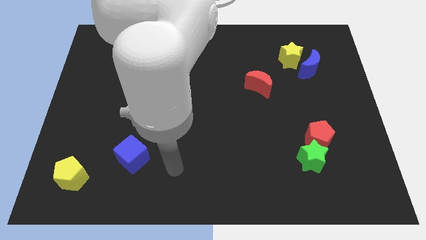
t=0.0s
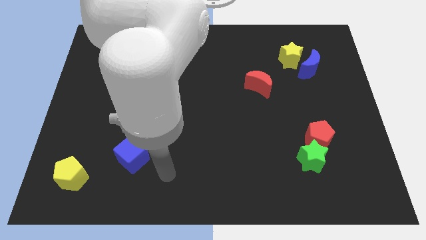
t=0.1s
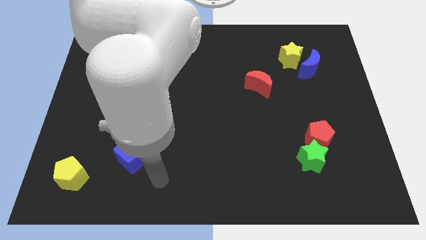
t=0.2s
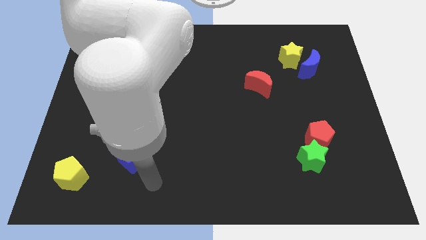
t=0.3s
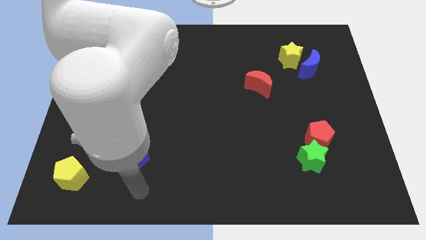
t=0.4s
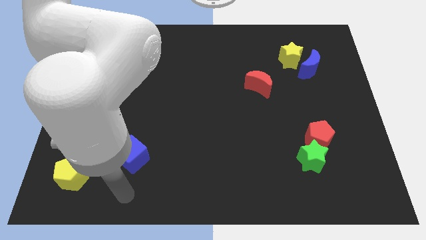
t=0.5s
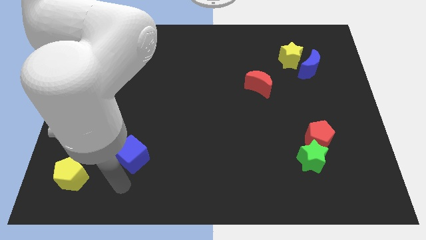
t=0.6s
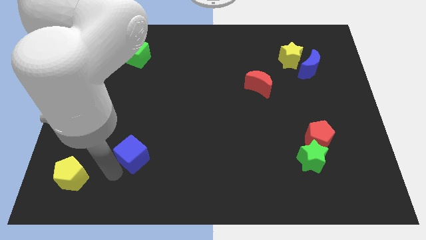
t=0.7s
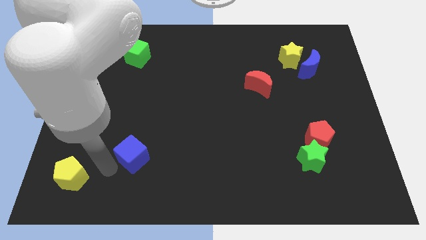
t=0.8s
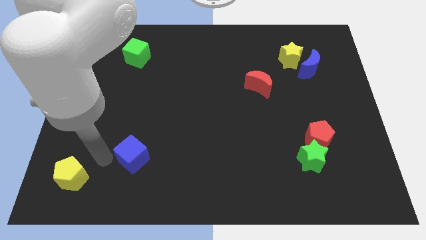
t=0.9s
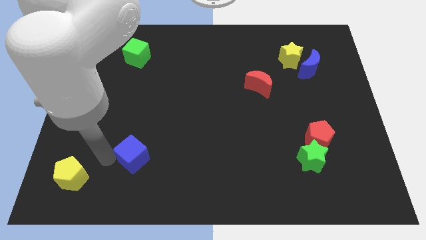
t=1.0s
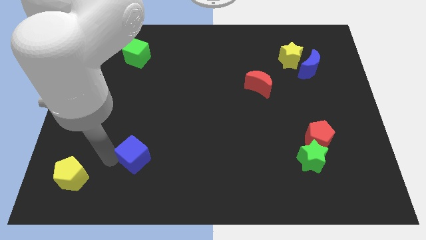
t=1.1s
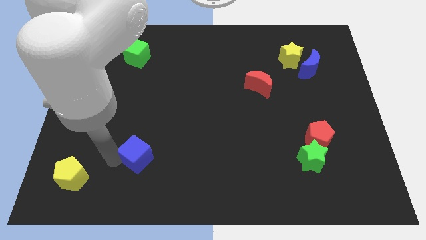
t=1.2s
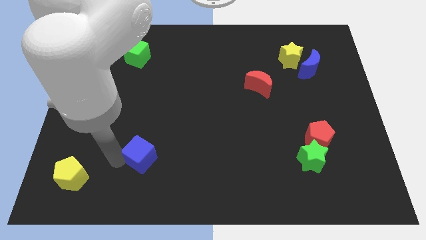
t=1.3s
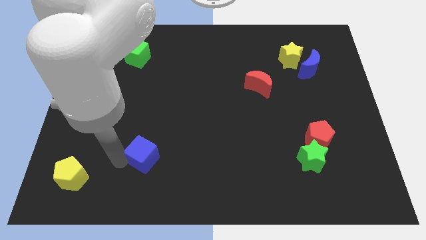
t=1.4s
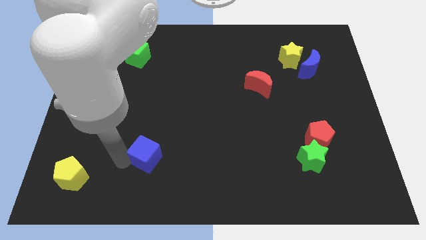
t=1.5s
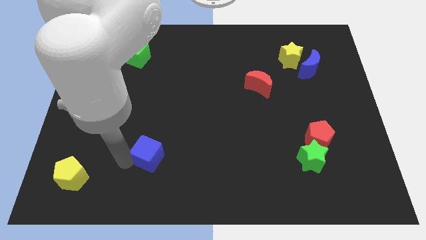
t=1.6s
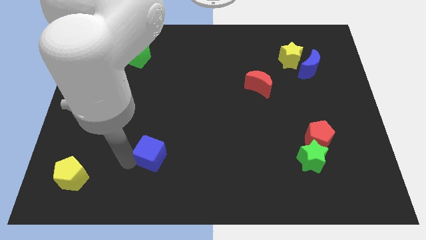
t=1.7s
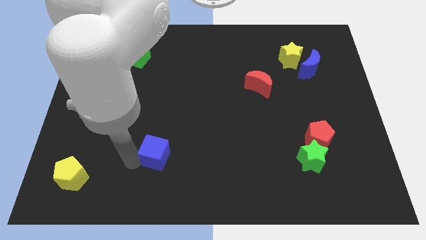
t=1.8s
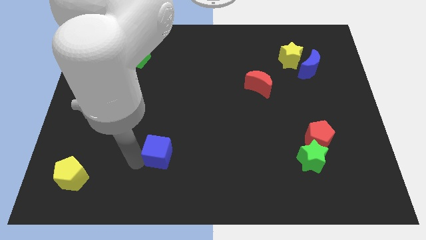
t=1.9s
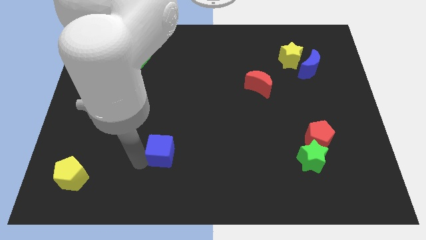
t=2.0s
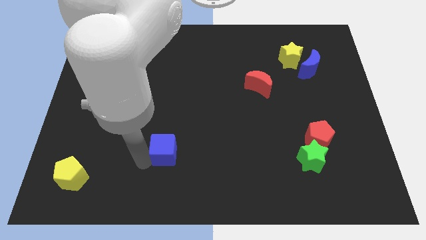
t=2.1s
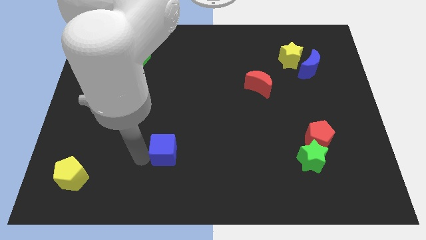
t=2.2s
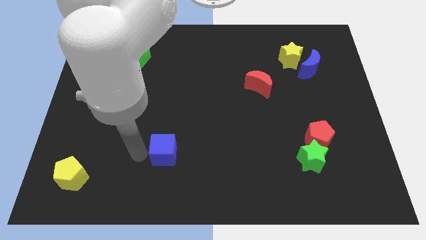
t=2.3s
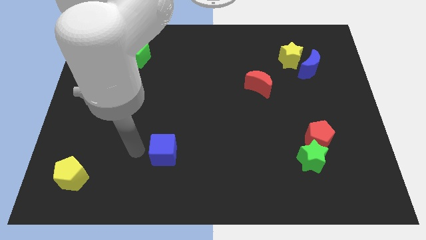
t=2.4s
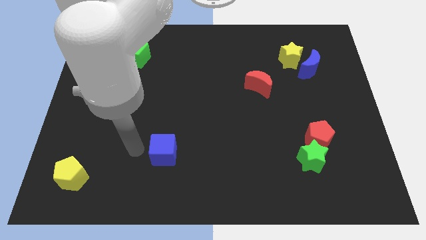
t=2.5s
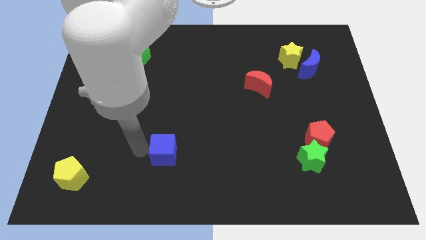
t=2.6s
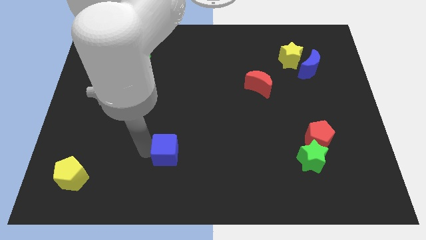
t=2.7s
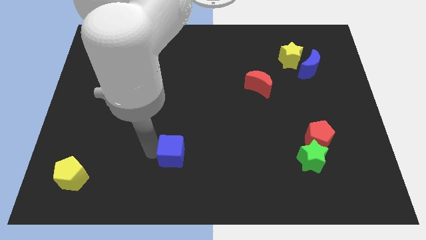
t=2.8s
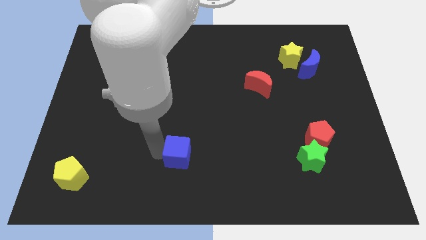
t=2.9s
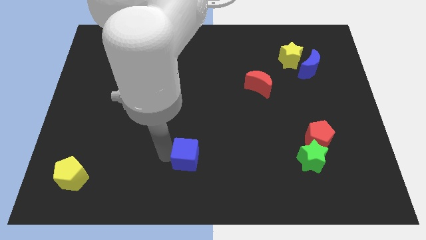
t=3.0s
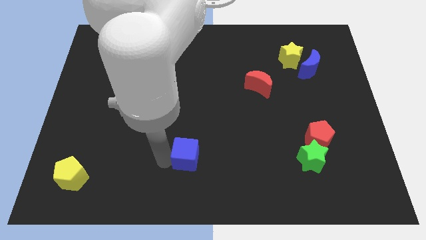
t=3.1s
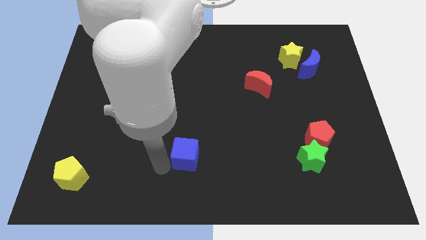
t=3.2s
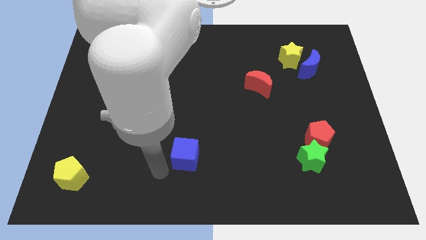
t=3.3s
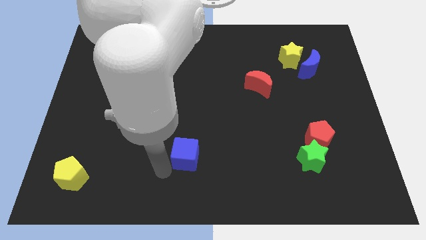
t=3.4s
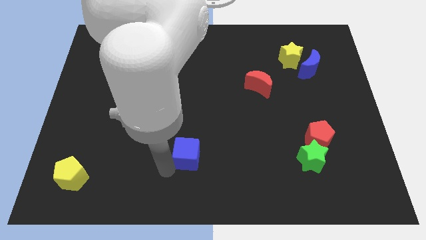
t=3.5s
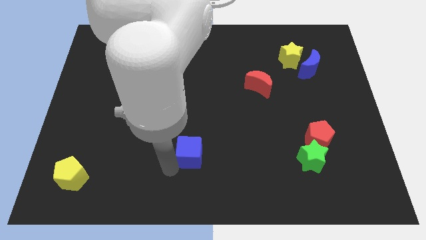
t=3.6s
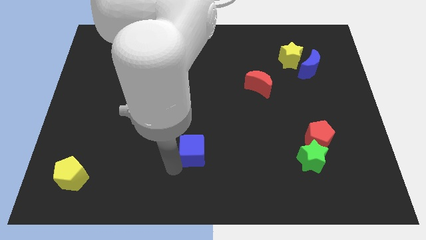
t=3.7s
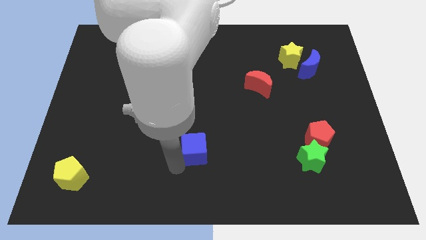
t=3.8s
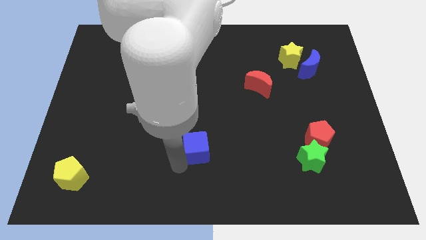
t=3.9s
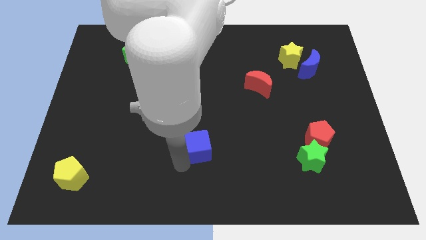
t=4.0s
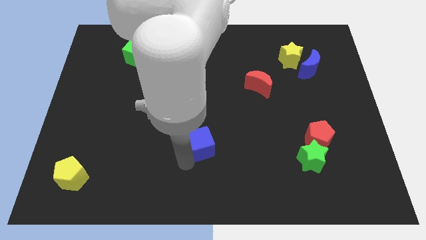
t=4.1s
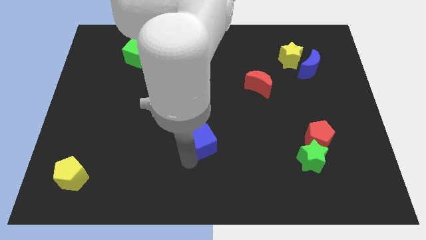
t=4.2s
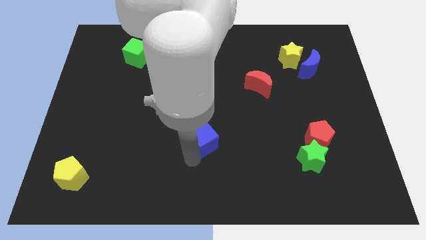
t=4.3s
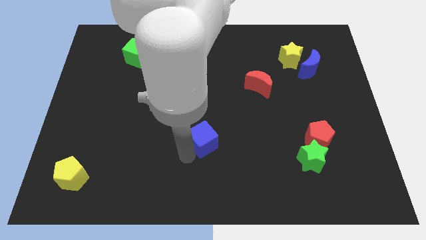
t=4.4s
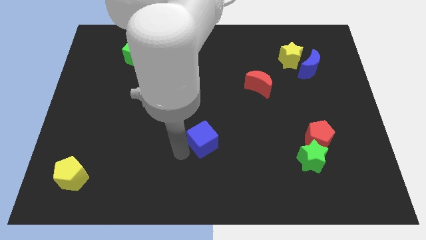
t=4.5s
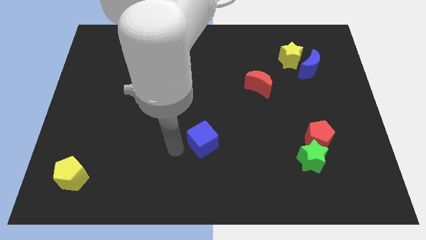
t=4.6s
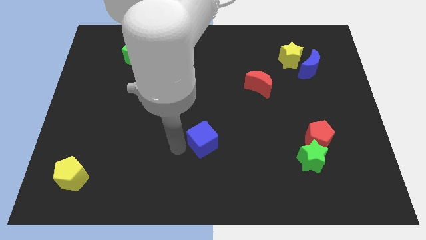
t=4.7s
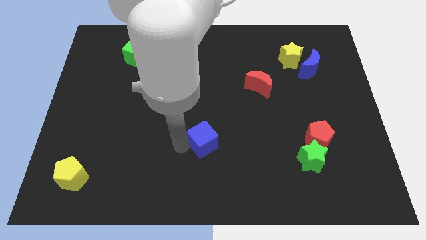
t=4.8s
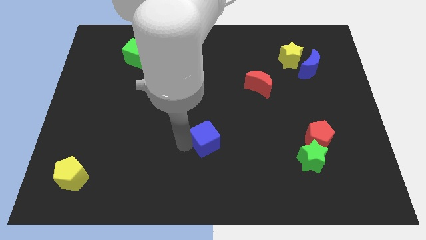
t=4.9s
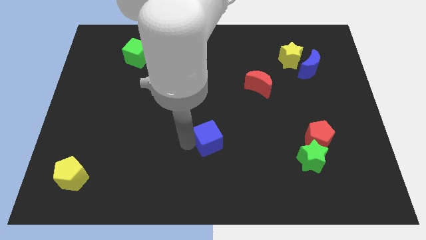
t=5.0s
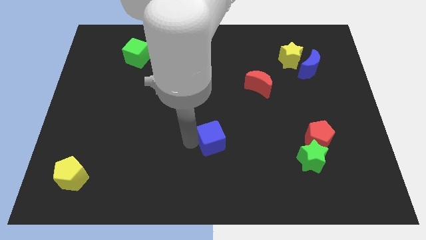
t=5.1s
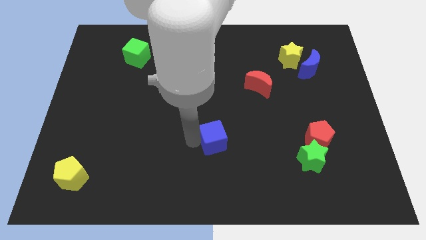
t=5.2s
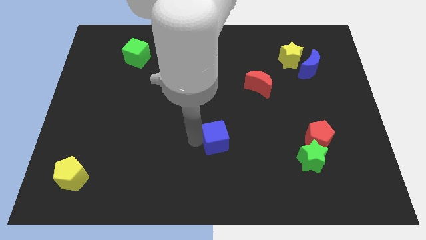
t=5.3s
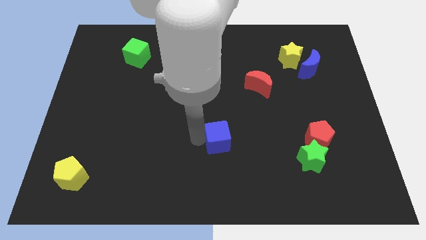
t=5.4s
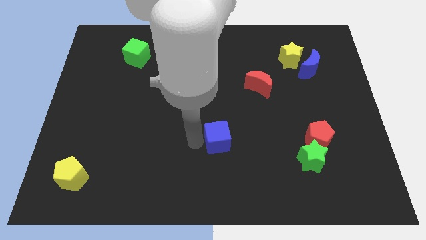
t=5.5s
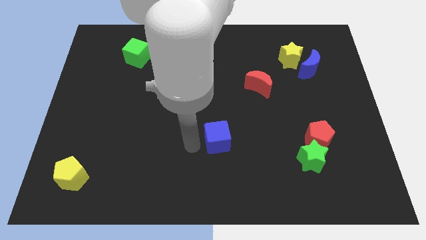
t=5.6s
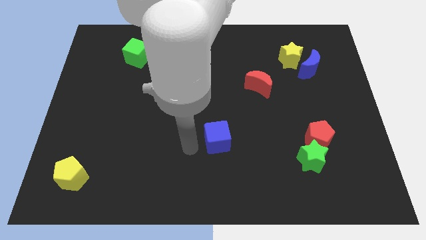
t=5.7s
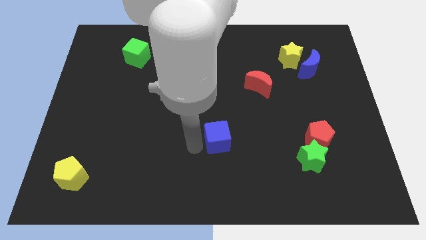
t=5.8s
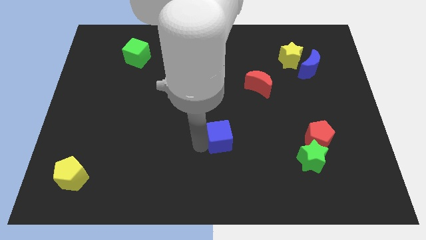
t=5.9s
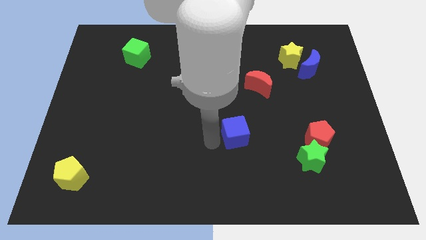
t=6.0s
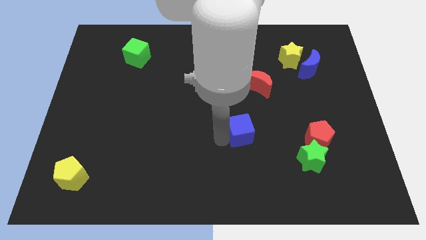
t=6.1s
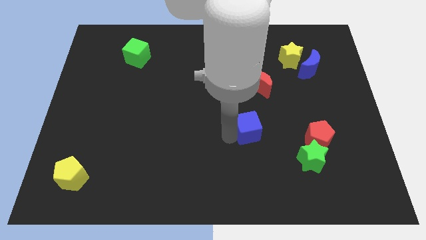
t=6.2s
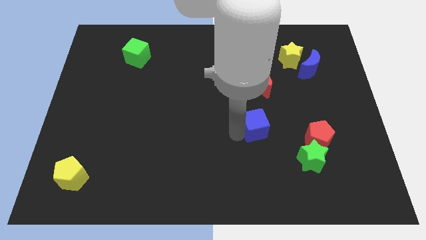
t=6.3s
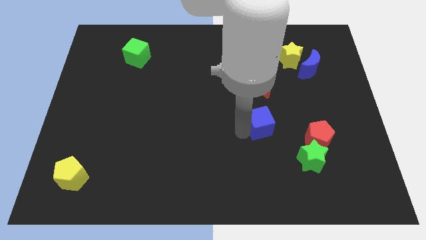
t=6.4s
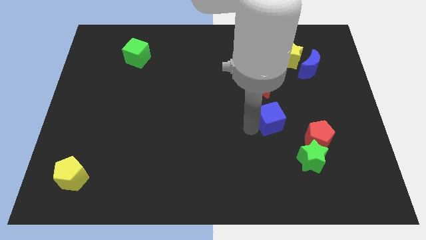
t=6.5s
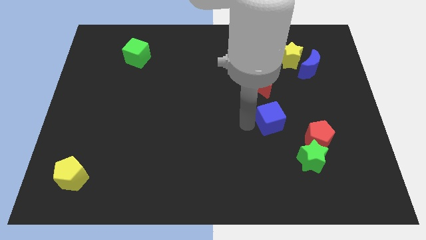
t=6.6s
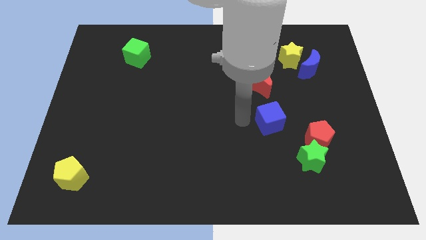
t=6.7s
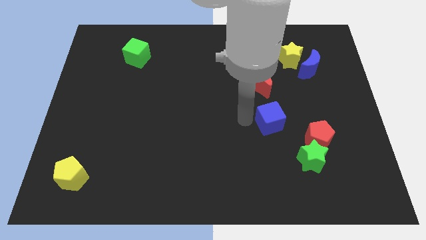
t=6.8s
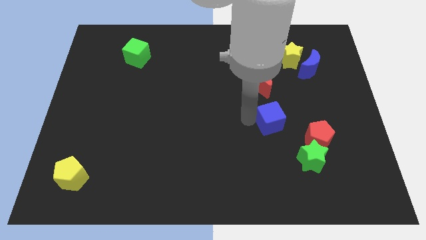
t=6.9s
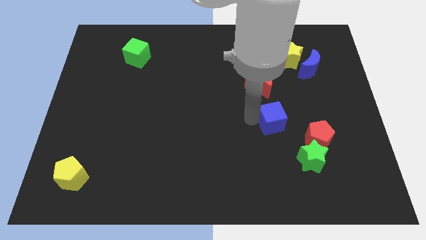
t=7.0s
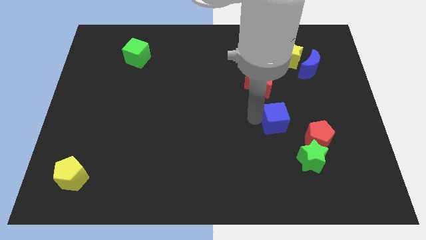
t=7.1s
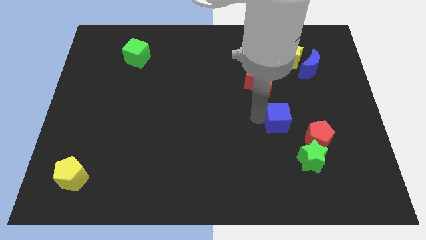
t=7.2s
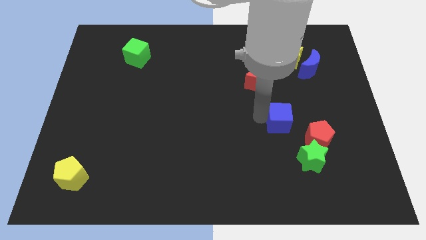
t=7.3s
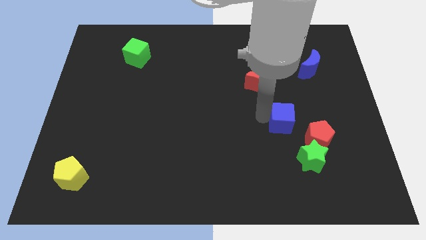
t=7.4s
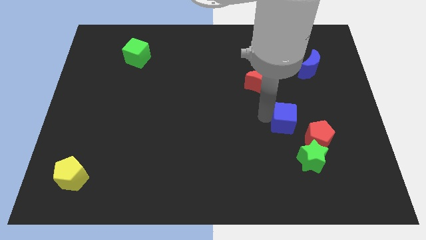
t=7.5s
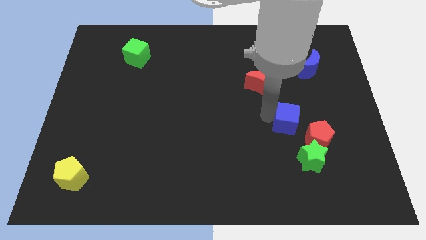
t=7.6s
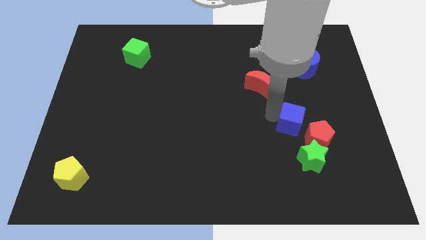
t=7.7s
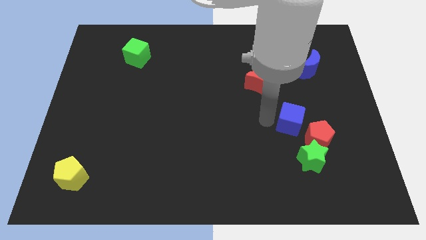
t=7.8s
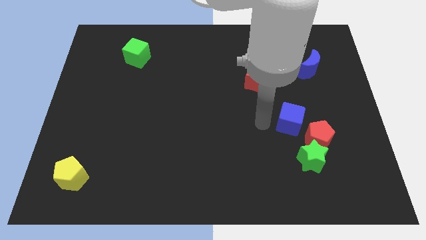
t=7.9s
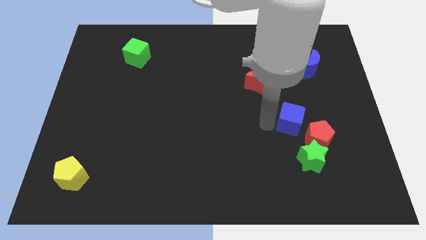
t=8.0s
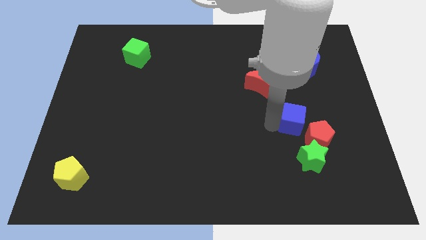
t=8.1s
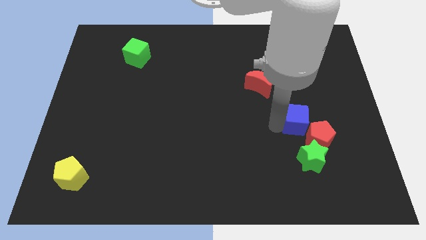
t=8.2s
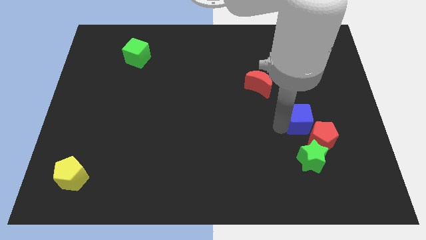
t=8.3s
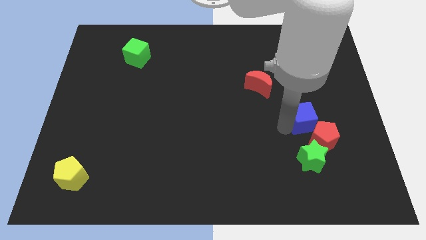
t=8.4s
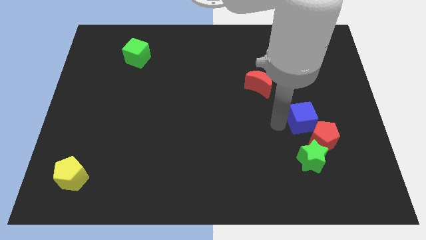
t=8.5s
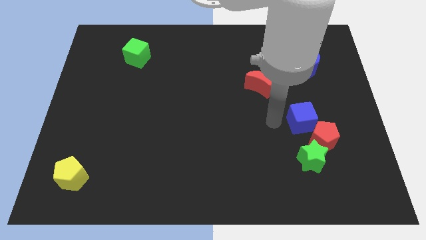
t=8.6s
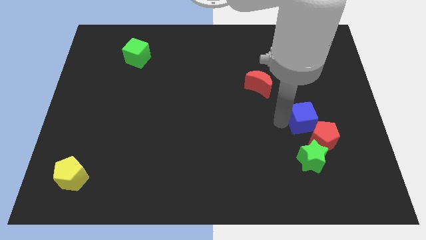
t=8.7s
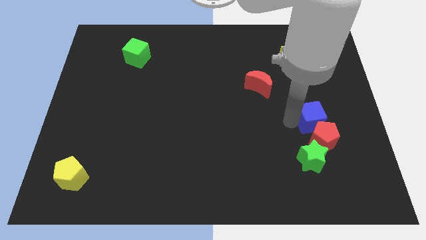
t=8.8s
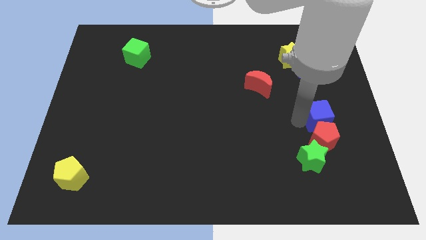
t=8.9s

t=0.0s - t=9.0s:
push the blue cube to the top right side of the red pentagon
